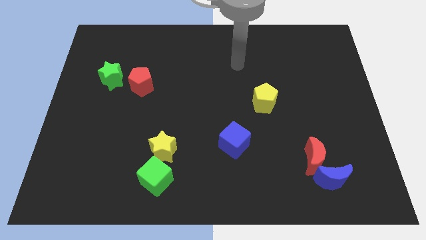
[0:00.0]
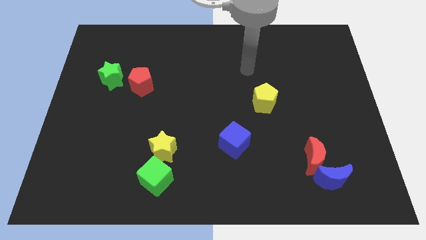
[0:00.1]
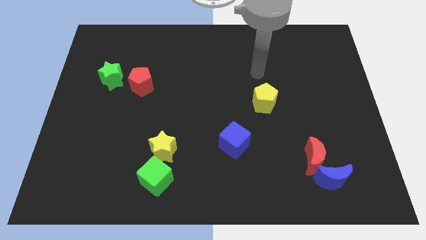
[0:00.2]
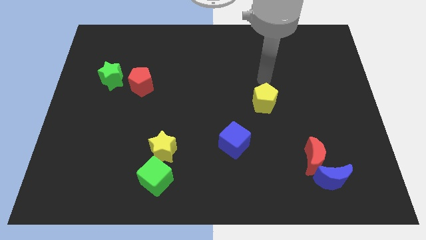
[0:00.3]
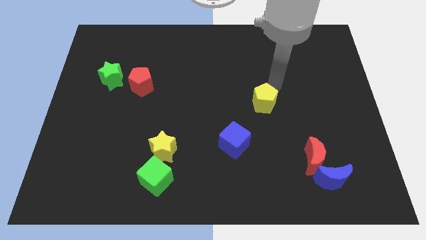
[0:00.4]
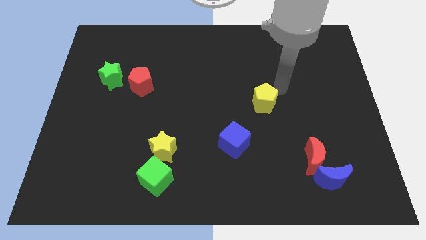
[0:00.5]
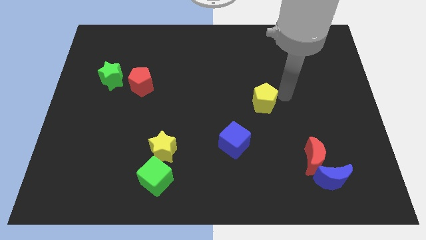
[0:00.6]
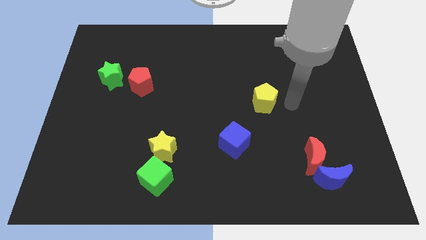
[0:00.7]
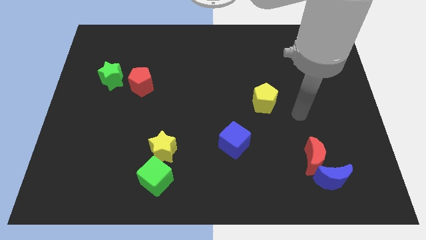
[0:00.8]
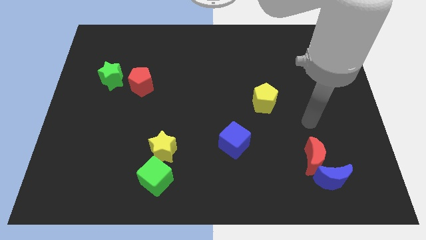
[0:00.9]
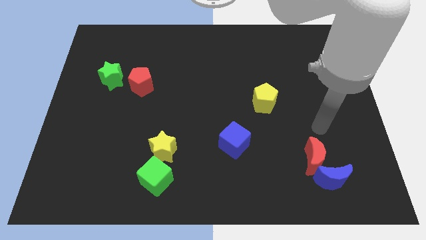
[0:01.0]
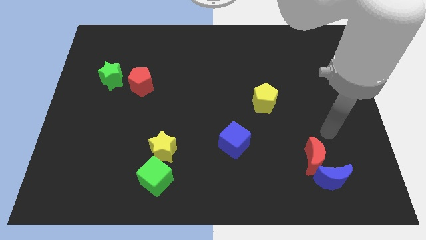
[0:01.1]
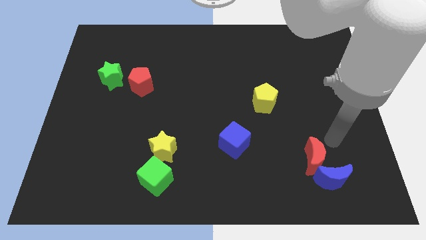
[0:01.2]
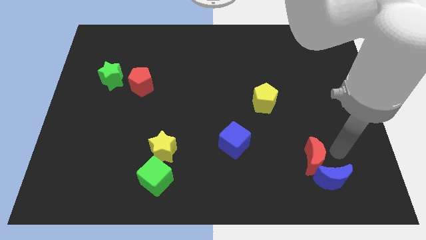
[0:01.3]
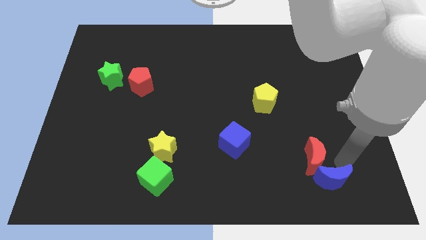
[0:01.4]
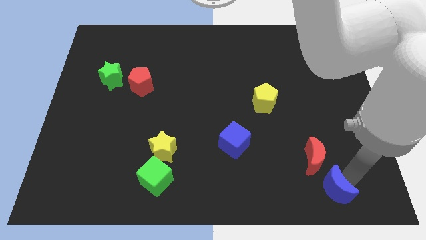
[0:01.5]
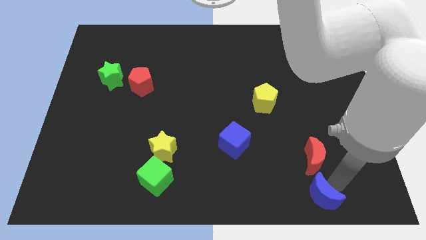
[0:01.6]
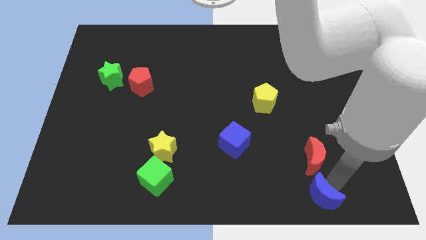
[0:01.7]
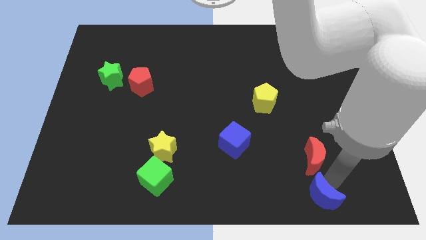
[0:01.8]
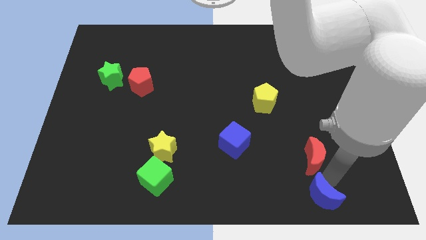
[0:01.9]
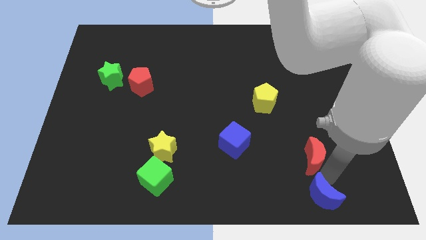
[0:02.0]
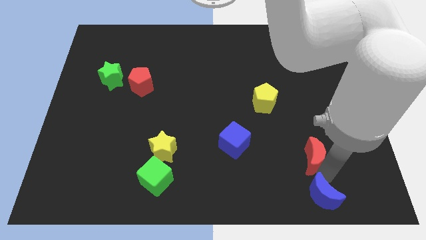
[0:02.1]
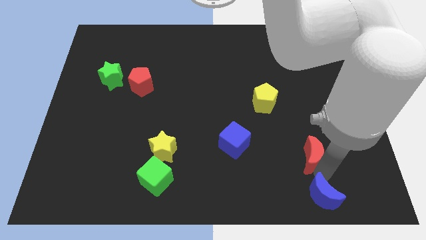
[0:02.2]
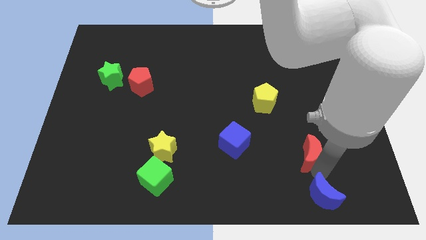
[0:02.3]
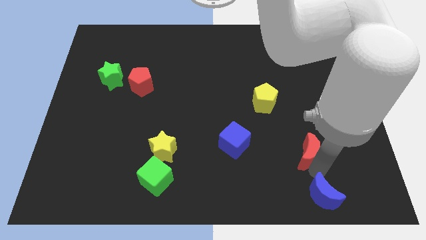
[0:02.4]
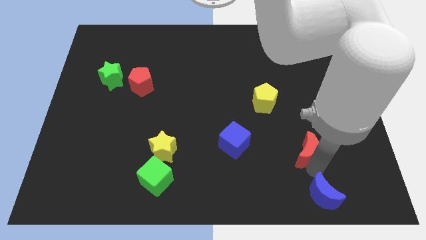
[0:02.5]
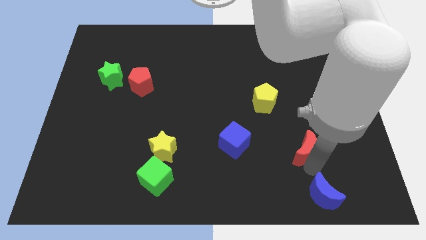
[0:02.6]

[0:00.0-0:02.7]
move the red moon away from the blue moon

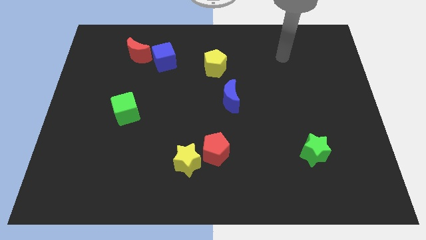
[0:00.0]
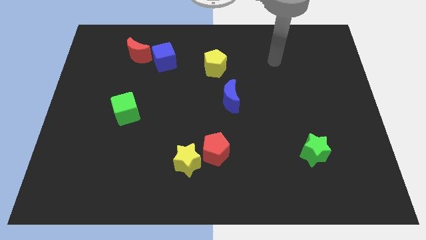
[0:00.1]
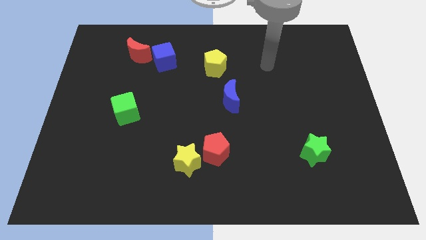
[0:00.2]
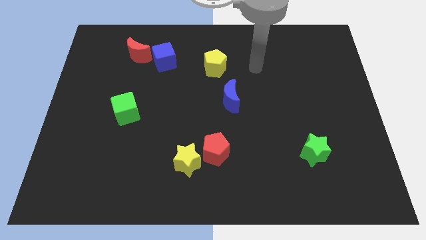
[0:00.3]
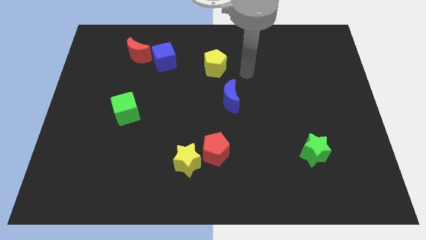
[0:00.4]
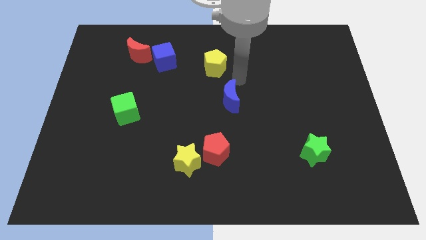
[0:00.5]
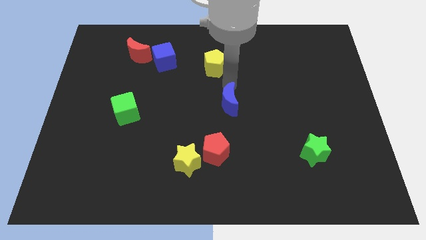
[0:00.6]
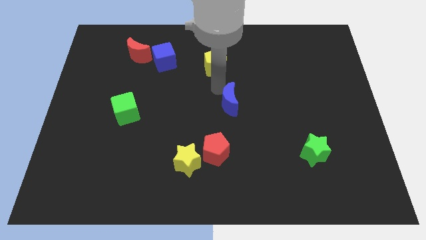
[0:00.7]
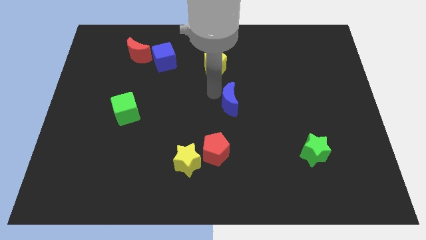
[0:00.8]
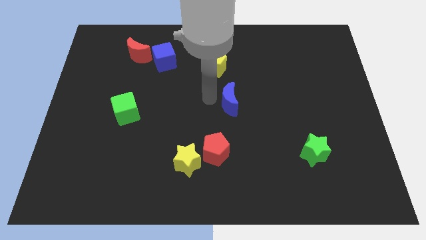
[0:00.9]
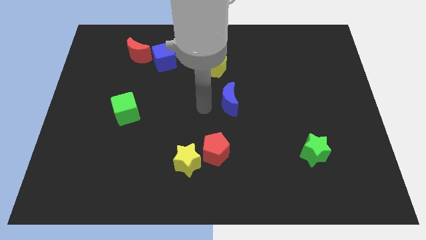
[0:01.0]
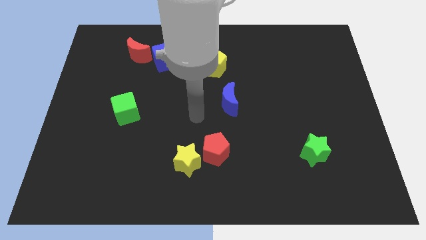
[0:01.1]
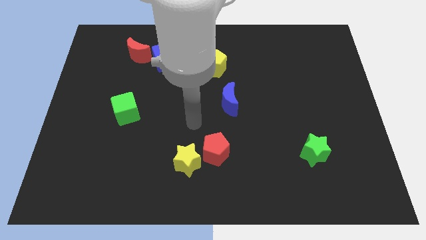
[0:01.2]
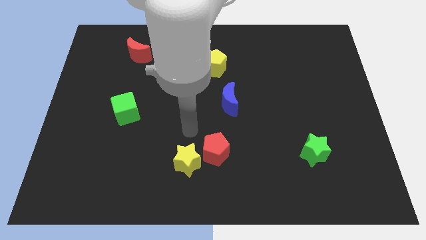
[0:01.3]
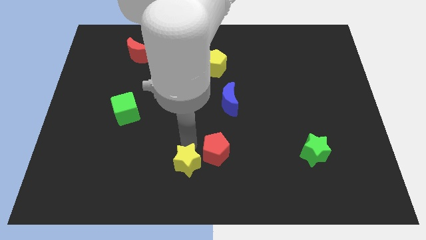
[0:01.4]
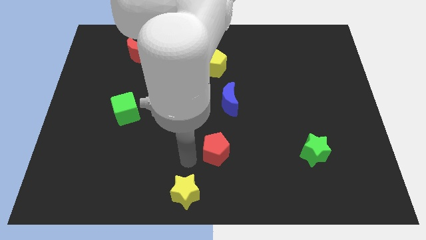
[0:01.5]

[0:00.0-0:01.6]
separate the red pentagon from the yellow star

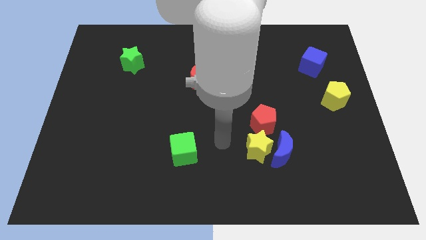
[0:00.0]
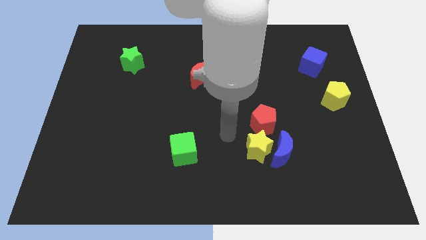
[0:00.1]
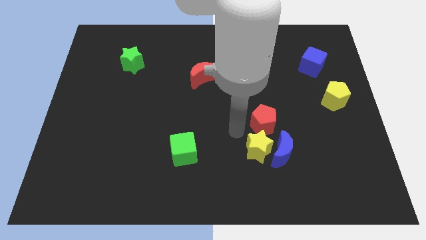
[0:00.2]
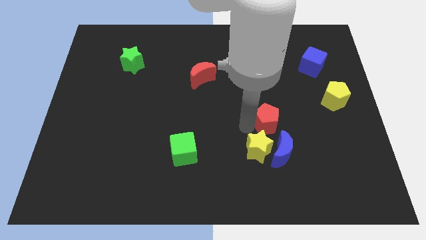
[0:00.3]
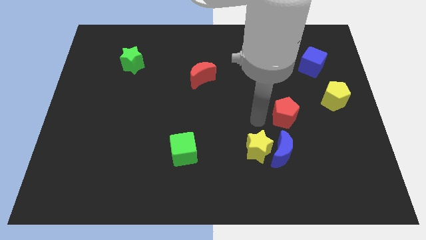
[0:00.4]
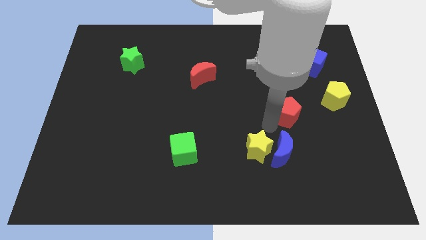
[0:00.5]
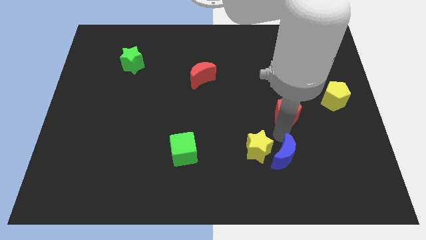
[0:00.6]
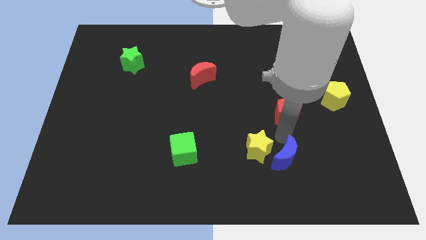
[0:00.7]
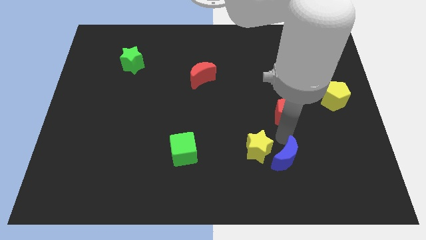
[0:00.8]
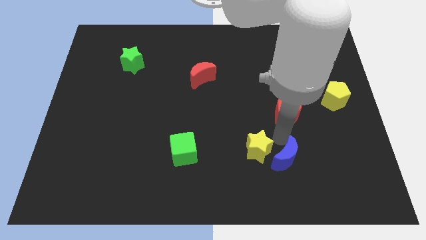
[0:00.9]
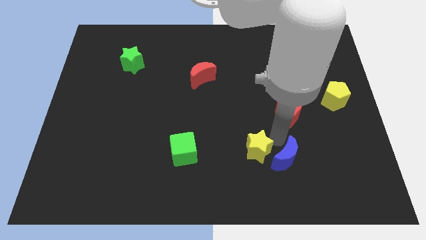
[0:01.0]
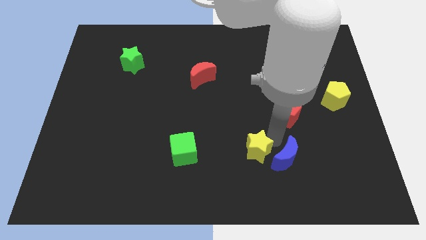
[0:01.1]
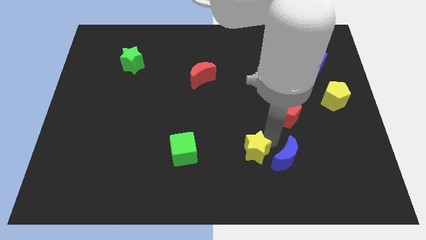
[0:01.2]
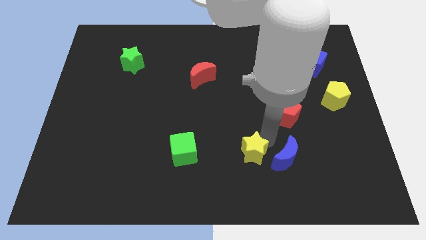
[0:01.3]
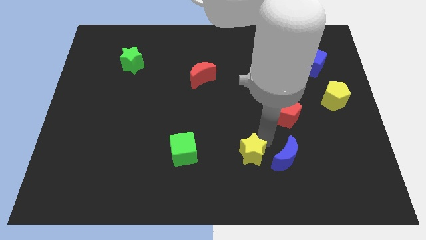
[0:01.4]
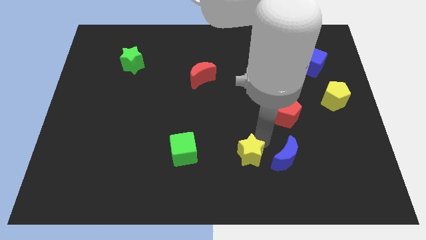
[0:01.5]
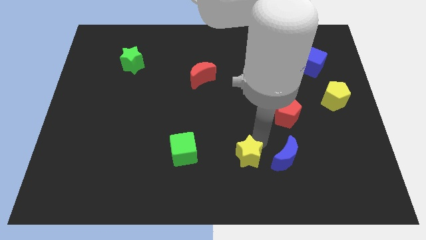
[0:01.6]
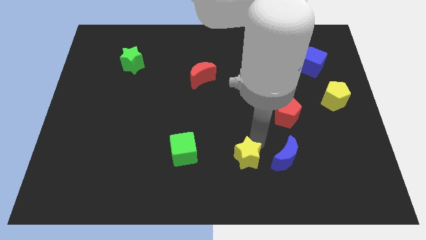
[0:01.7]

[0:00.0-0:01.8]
pull the yellow star apart from the blue moon and red pentagon

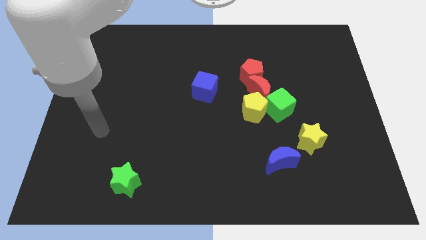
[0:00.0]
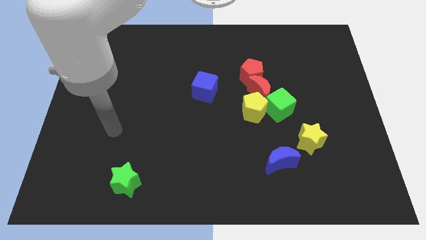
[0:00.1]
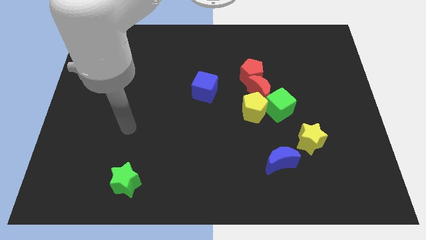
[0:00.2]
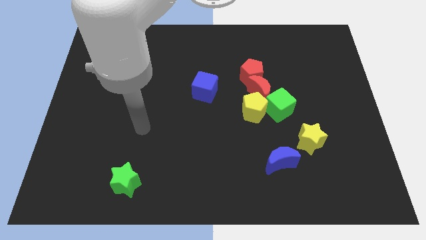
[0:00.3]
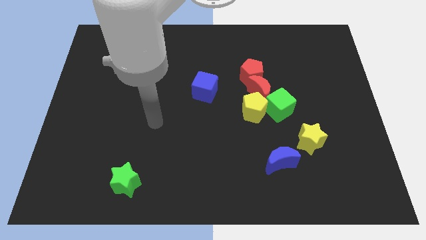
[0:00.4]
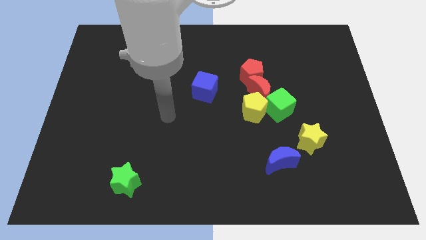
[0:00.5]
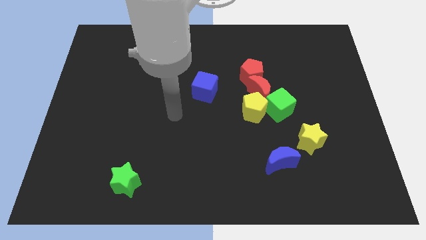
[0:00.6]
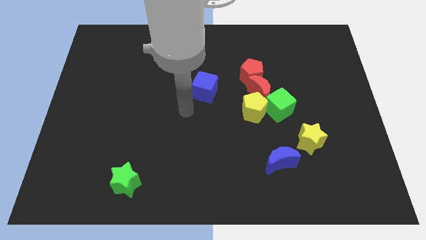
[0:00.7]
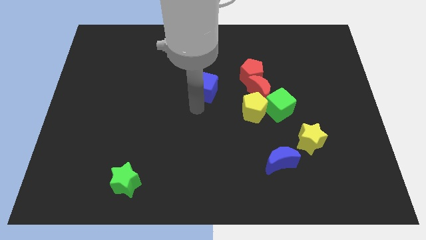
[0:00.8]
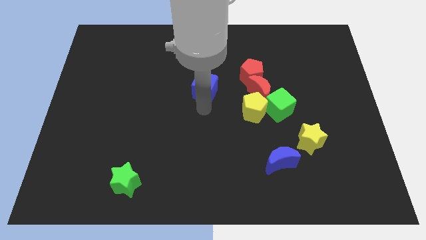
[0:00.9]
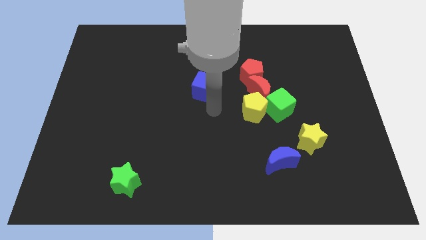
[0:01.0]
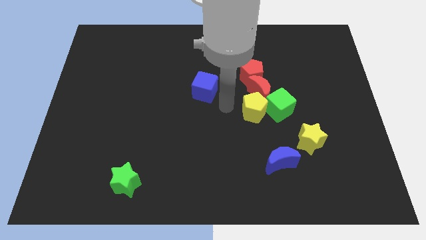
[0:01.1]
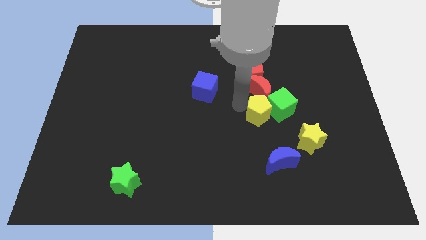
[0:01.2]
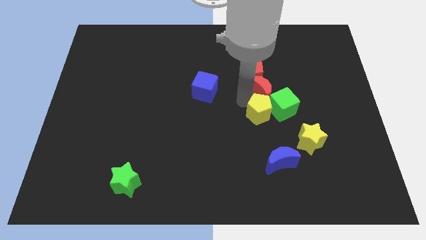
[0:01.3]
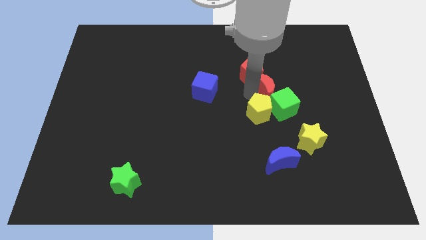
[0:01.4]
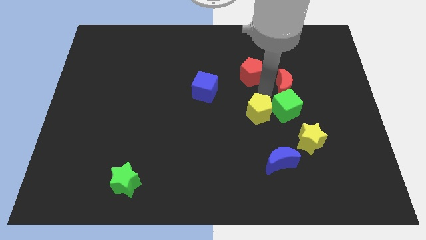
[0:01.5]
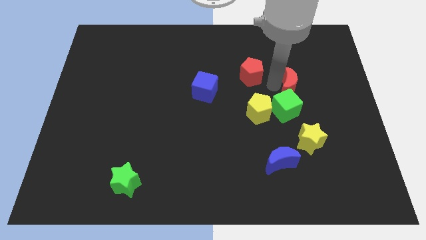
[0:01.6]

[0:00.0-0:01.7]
separate the red pentagon from the red moon

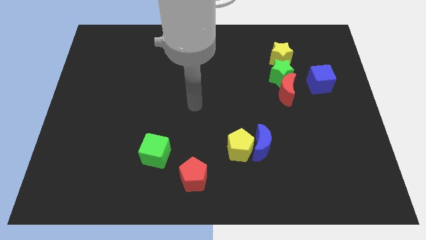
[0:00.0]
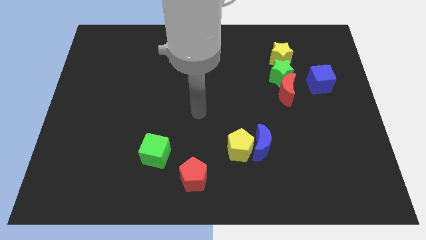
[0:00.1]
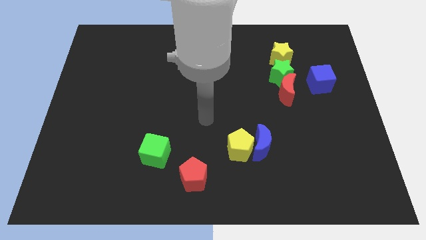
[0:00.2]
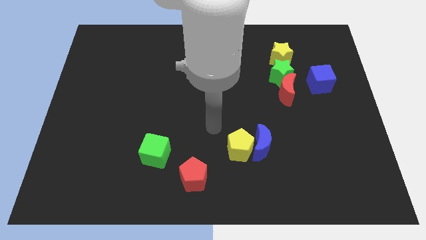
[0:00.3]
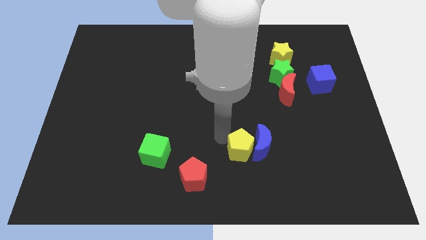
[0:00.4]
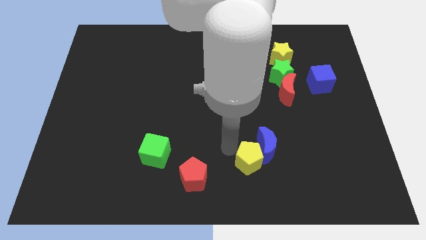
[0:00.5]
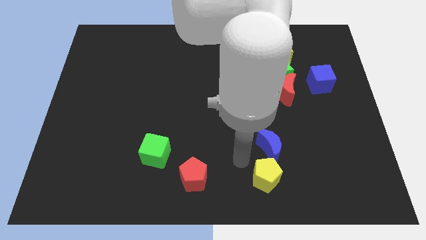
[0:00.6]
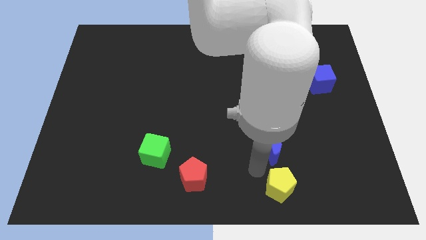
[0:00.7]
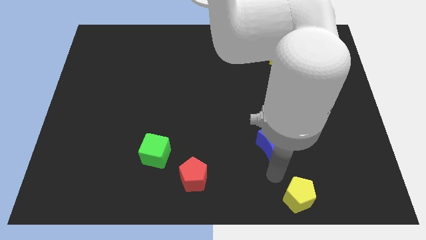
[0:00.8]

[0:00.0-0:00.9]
separate the blue moon from the yellow pentagon

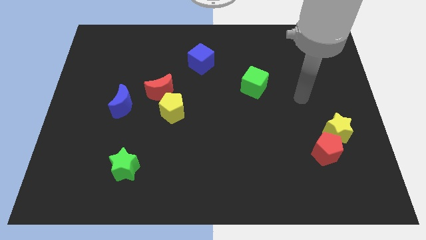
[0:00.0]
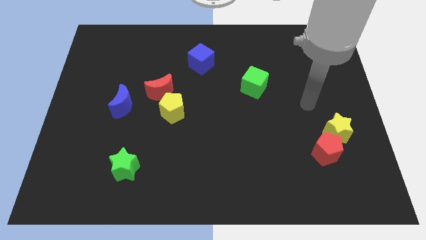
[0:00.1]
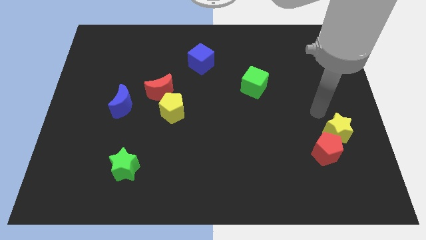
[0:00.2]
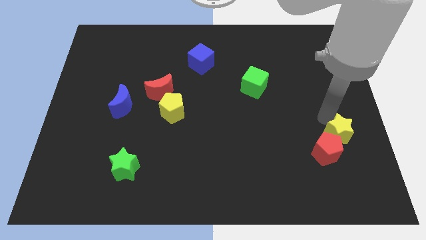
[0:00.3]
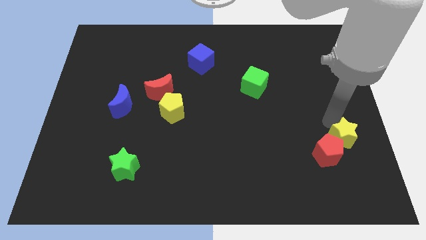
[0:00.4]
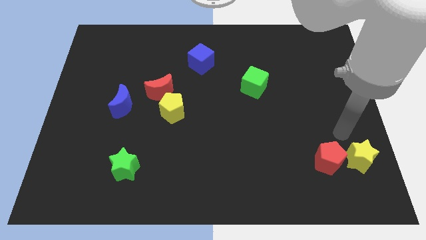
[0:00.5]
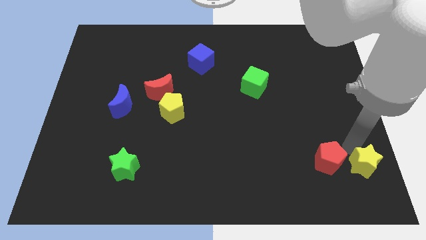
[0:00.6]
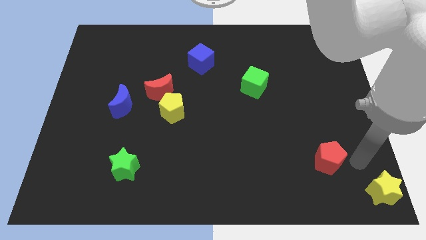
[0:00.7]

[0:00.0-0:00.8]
pull the red pentagon apart from the yellow star
